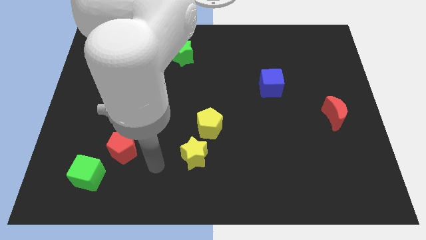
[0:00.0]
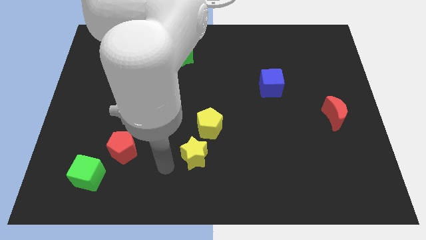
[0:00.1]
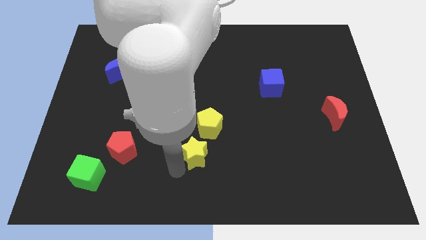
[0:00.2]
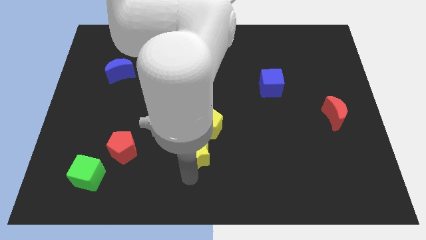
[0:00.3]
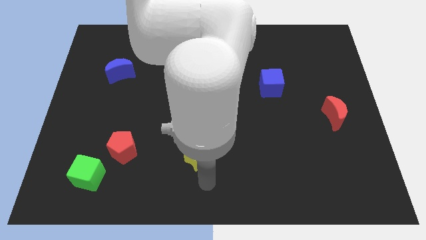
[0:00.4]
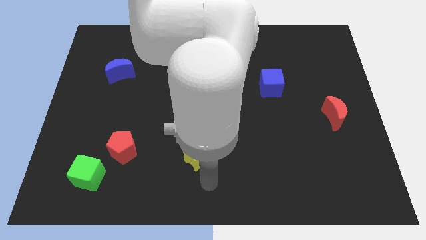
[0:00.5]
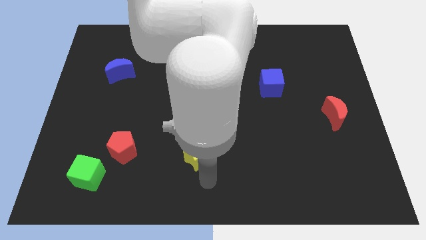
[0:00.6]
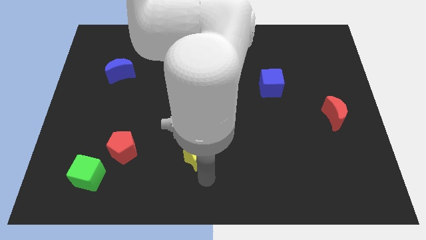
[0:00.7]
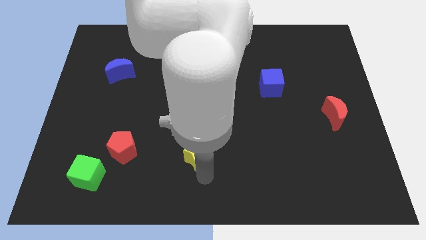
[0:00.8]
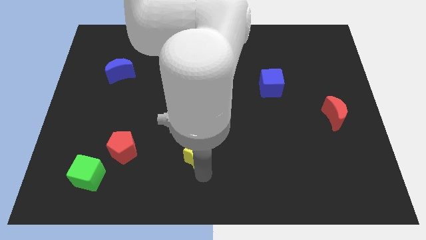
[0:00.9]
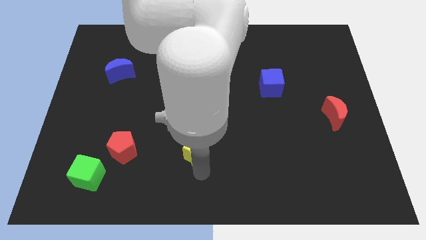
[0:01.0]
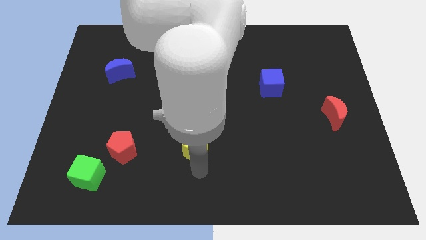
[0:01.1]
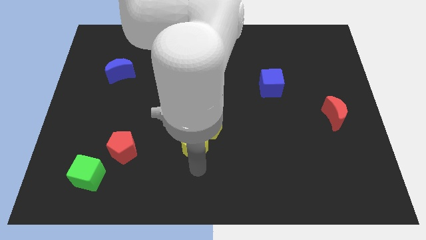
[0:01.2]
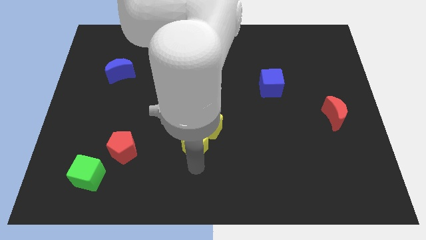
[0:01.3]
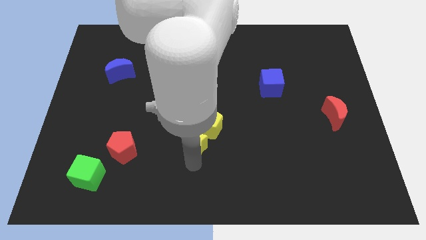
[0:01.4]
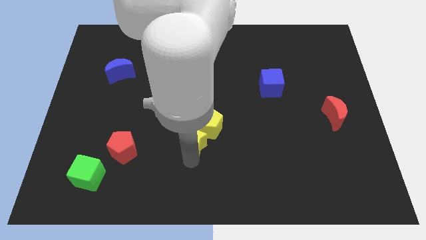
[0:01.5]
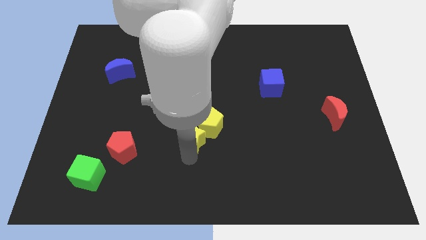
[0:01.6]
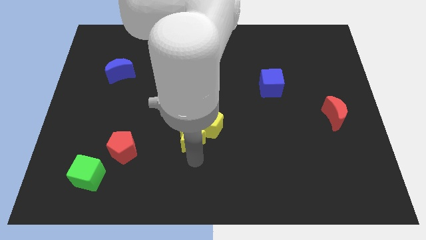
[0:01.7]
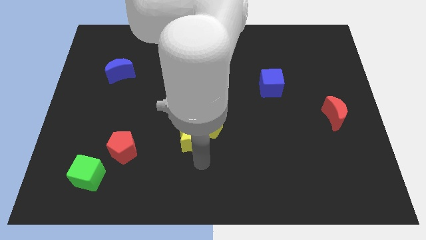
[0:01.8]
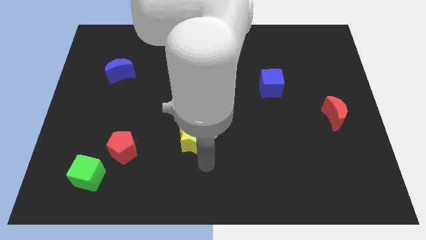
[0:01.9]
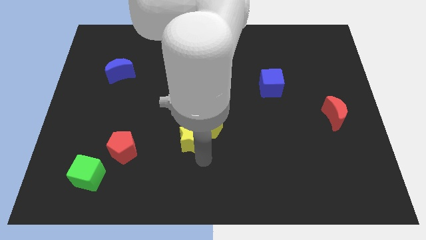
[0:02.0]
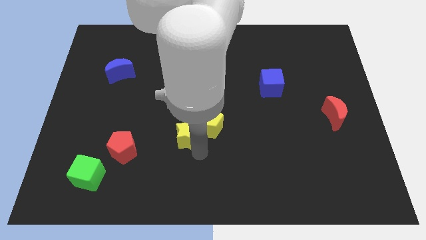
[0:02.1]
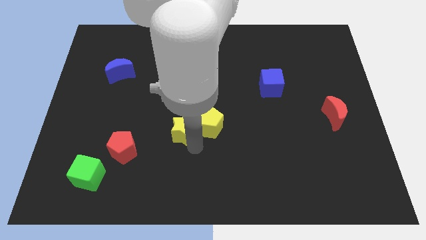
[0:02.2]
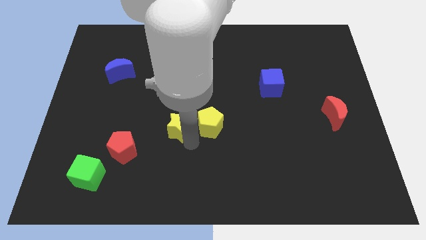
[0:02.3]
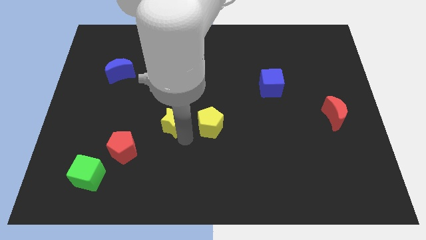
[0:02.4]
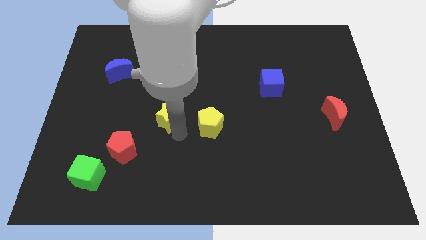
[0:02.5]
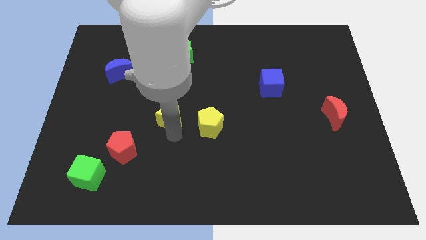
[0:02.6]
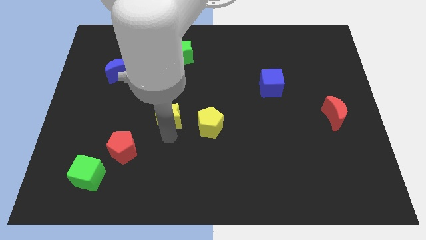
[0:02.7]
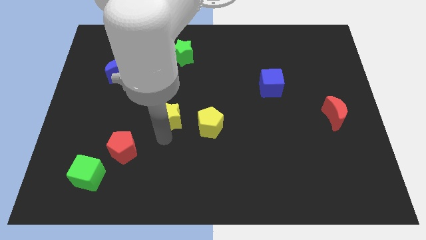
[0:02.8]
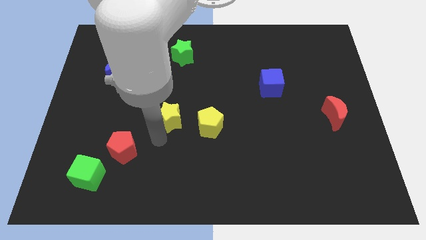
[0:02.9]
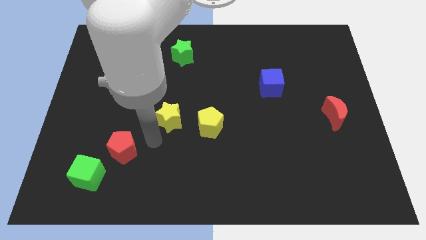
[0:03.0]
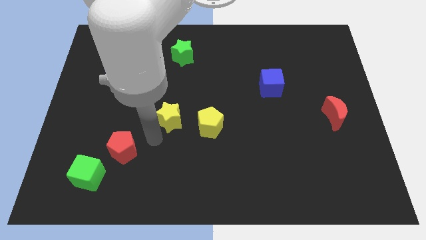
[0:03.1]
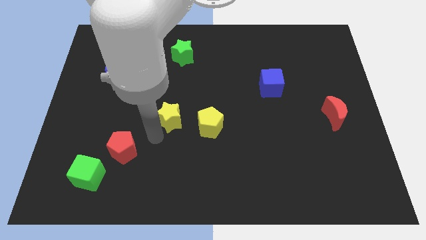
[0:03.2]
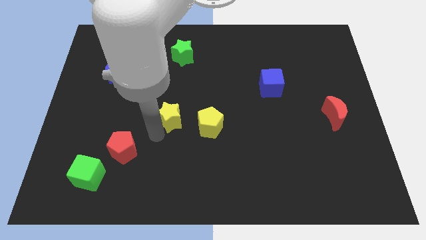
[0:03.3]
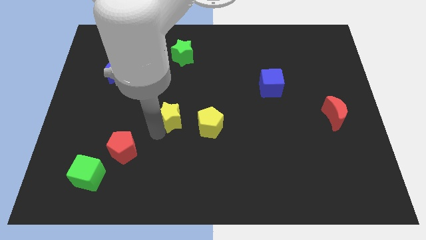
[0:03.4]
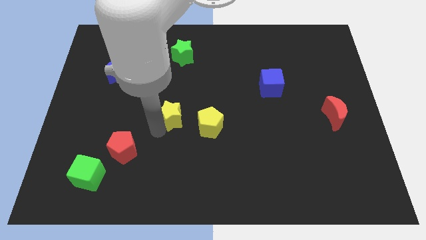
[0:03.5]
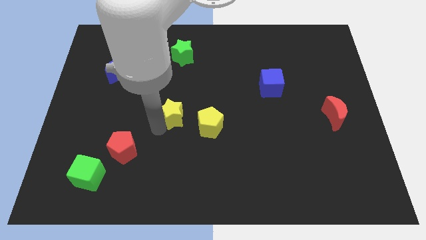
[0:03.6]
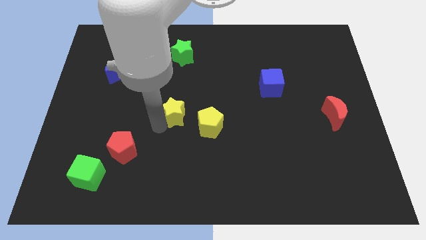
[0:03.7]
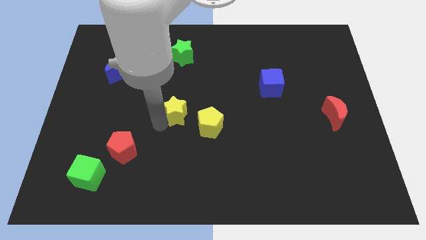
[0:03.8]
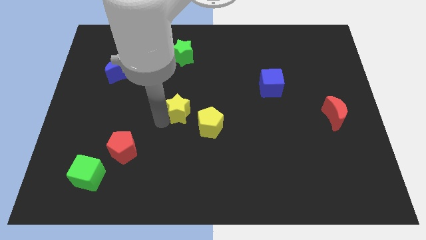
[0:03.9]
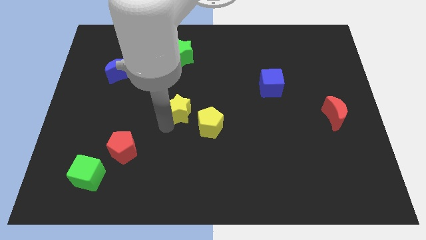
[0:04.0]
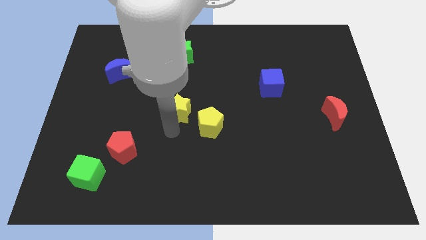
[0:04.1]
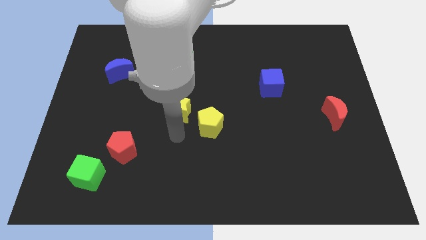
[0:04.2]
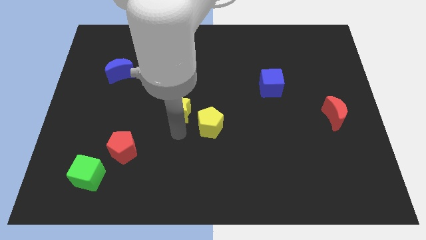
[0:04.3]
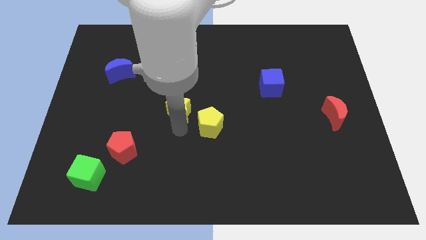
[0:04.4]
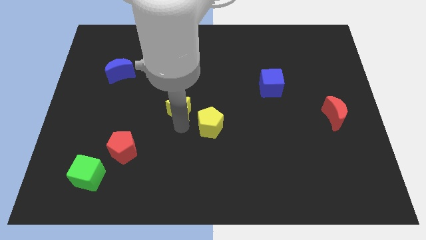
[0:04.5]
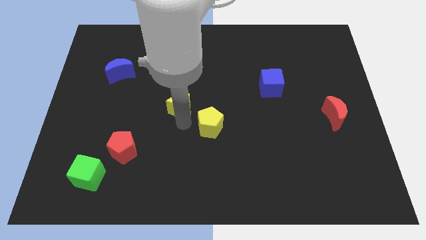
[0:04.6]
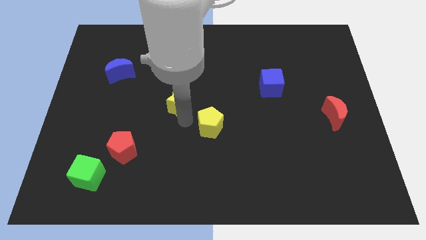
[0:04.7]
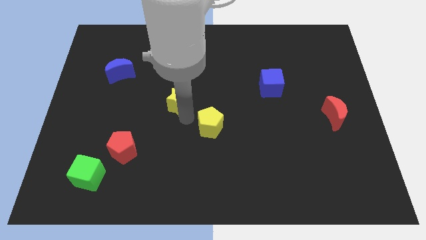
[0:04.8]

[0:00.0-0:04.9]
slide the yellow star to the bottom side of the green star

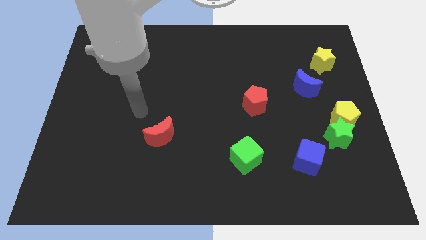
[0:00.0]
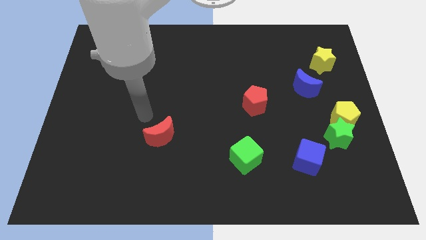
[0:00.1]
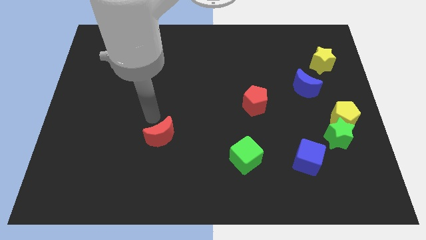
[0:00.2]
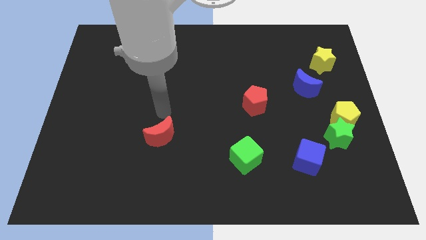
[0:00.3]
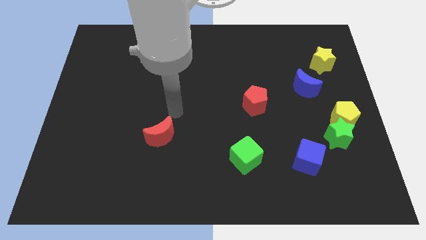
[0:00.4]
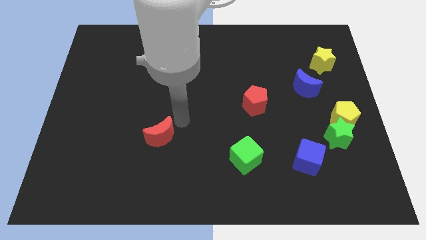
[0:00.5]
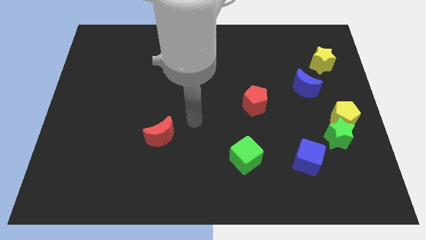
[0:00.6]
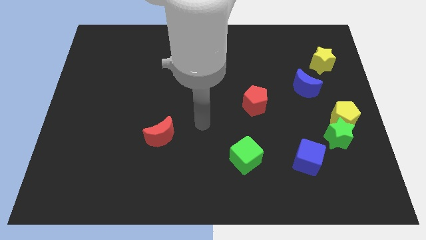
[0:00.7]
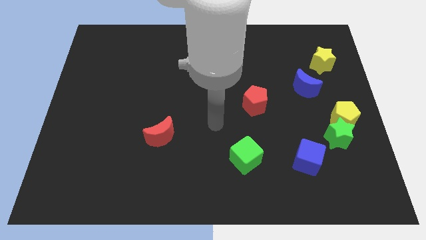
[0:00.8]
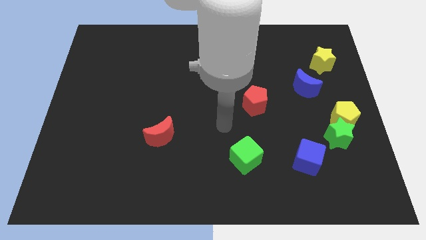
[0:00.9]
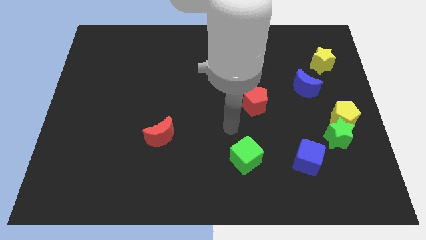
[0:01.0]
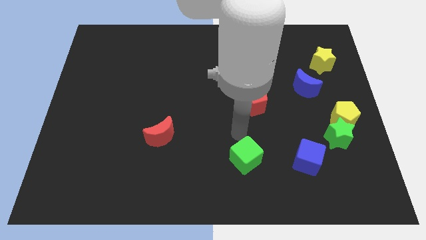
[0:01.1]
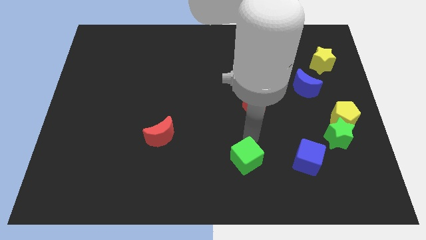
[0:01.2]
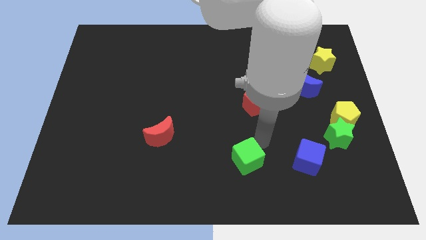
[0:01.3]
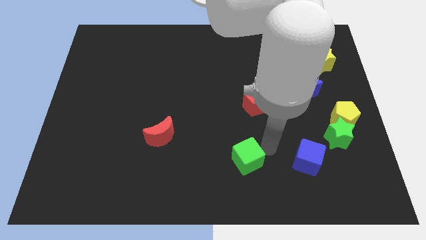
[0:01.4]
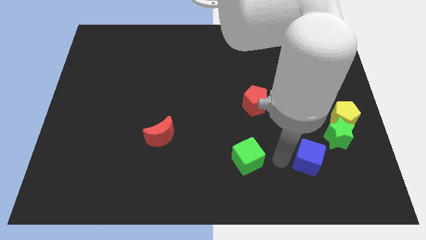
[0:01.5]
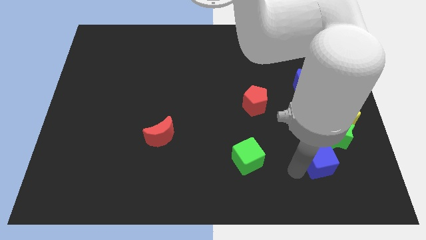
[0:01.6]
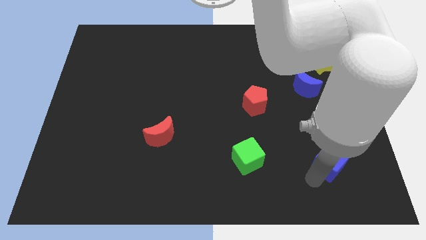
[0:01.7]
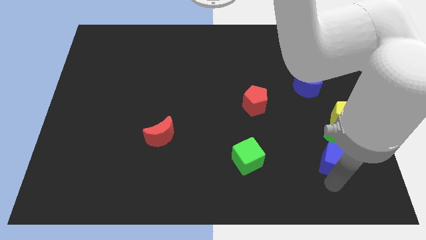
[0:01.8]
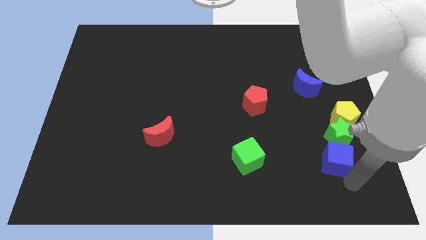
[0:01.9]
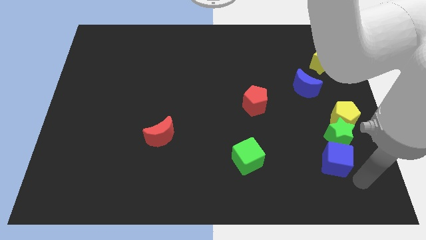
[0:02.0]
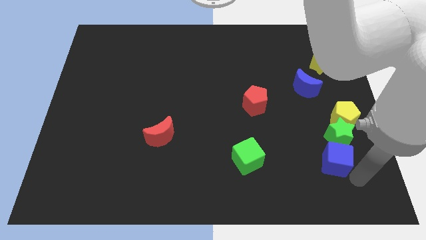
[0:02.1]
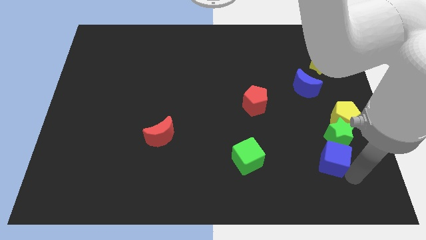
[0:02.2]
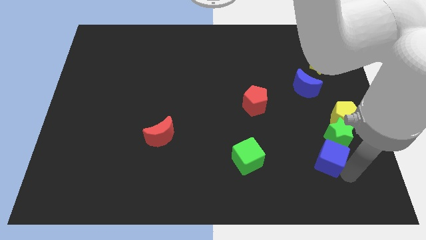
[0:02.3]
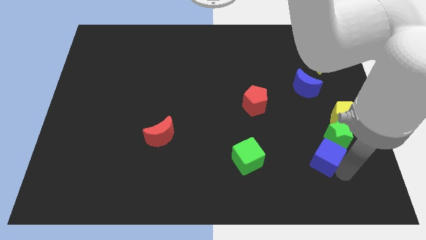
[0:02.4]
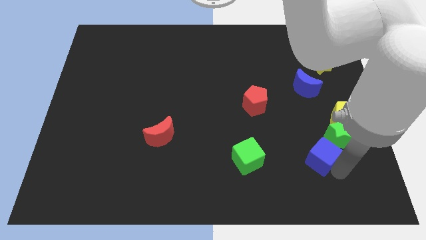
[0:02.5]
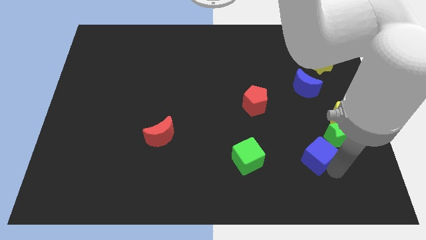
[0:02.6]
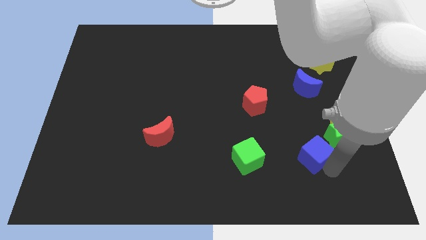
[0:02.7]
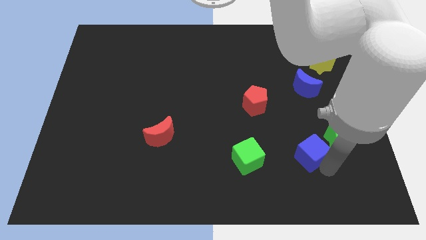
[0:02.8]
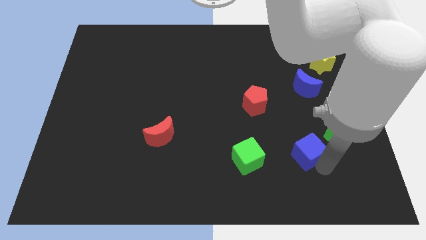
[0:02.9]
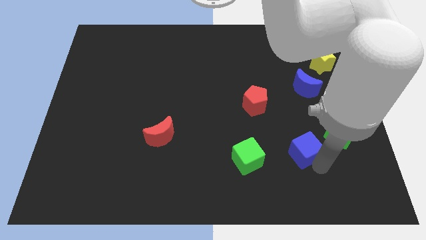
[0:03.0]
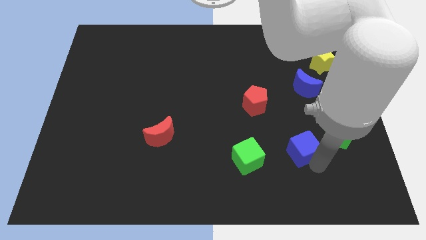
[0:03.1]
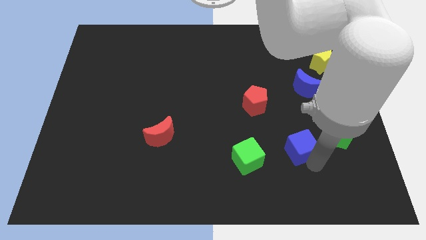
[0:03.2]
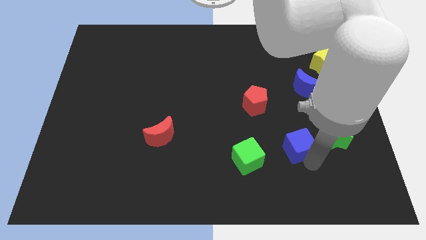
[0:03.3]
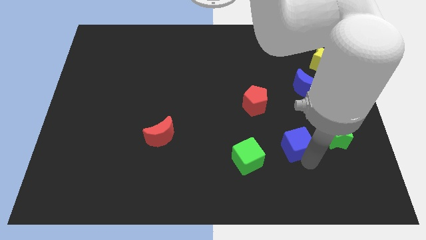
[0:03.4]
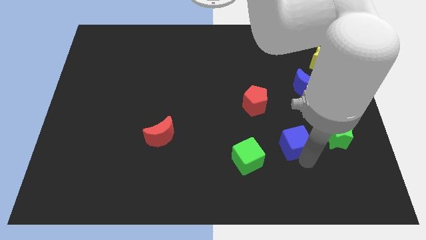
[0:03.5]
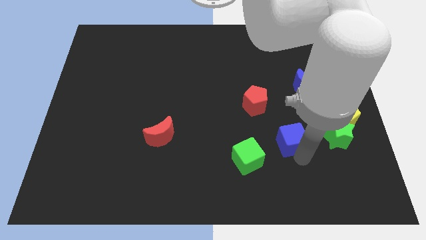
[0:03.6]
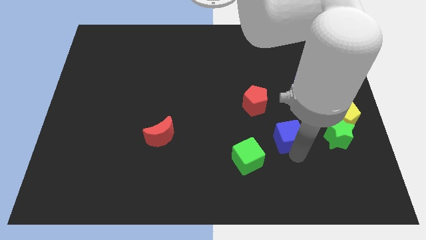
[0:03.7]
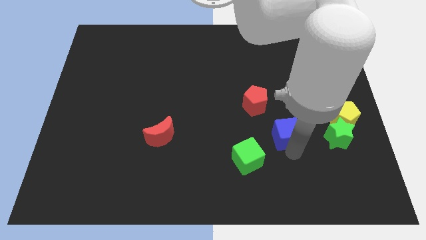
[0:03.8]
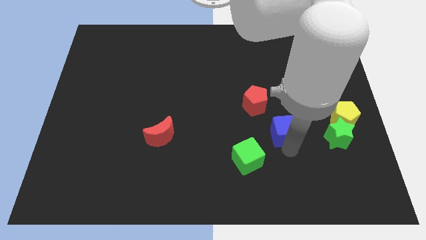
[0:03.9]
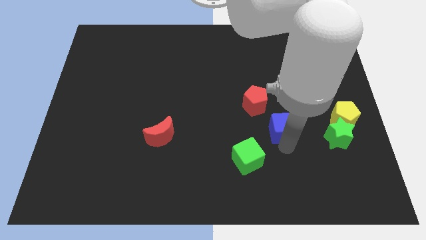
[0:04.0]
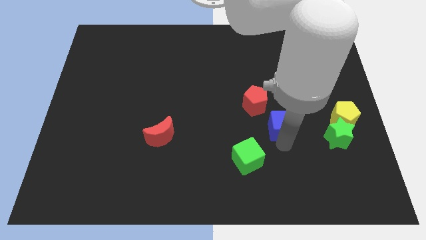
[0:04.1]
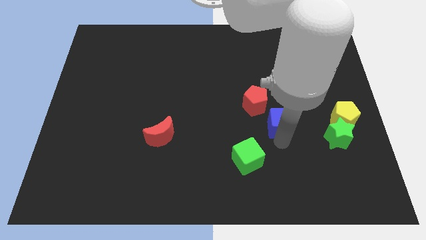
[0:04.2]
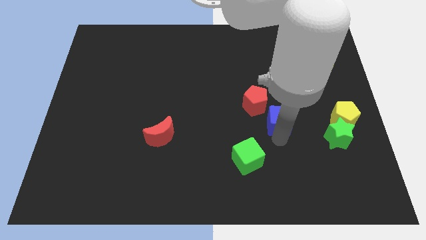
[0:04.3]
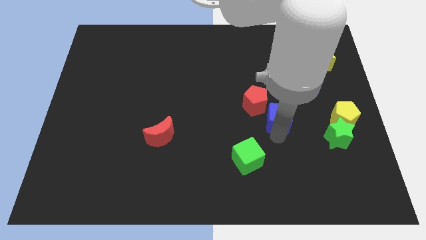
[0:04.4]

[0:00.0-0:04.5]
put the blue cube to the bottom left side of the blue moon
